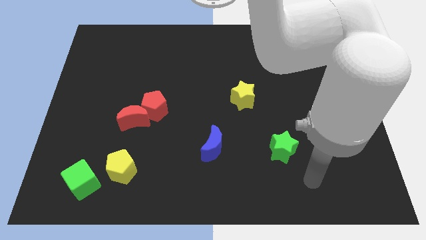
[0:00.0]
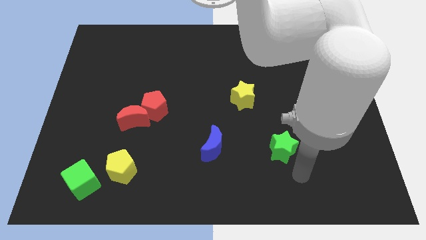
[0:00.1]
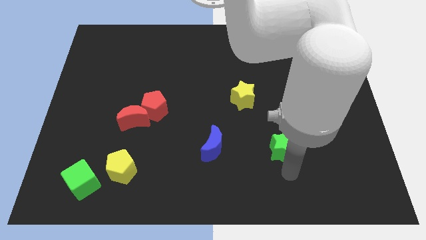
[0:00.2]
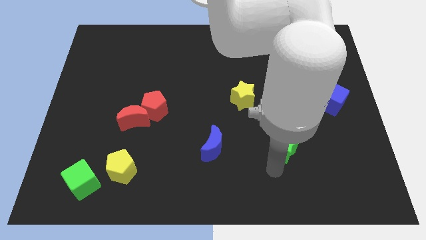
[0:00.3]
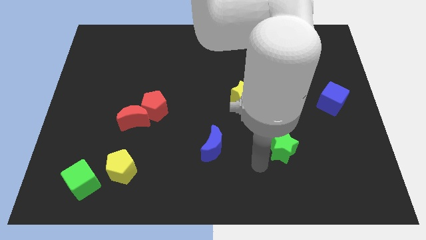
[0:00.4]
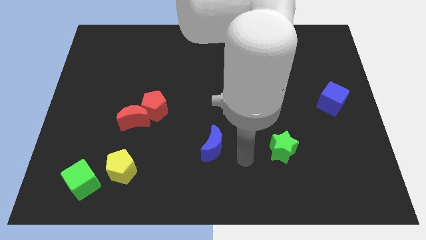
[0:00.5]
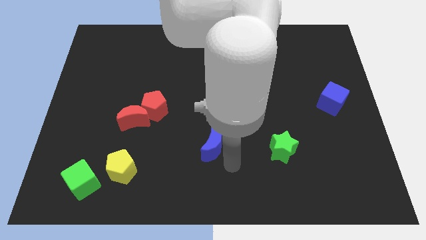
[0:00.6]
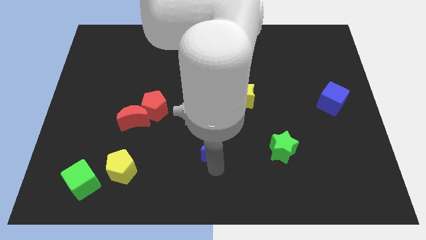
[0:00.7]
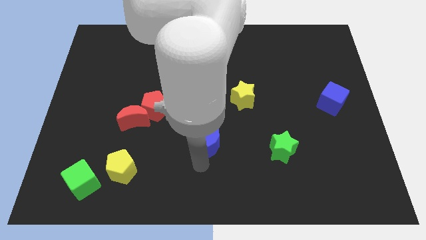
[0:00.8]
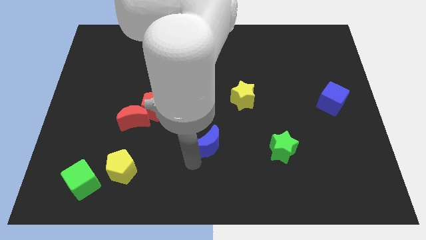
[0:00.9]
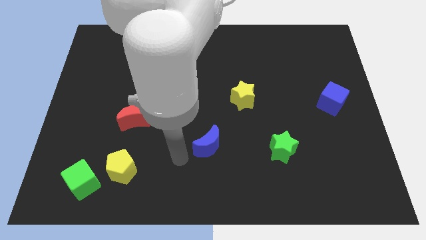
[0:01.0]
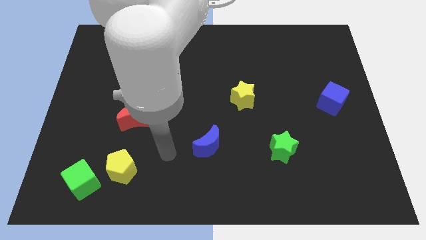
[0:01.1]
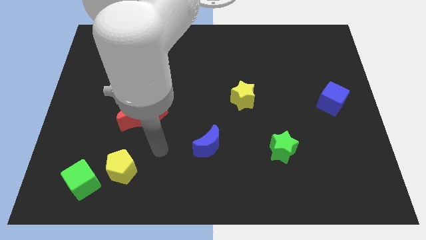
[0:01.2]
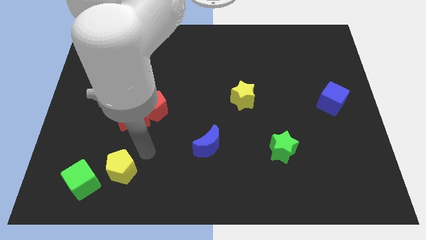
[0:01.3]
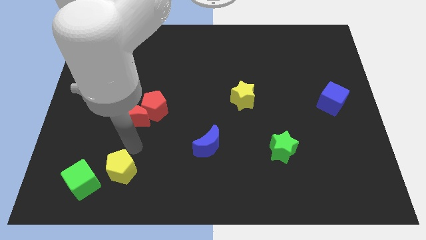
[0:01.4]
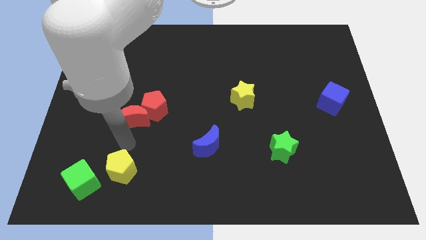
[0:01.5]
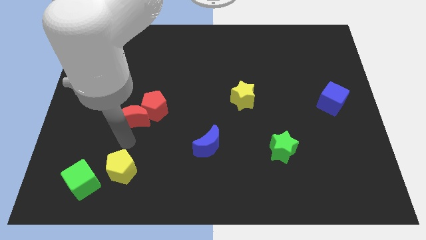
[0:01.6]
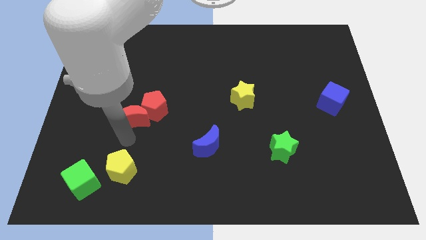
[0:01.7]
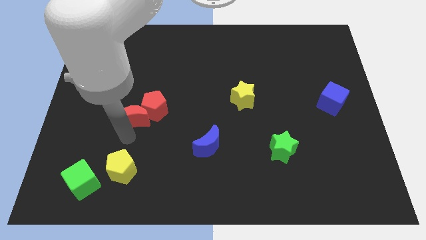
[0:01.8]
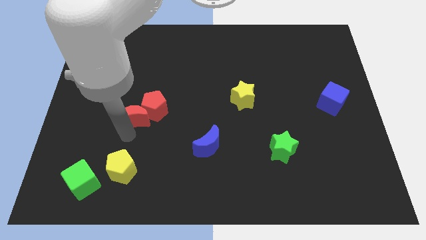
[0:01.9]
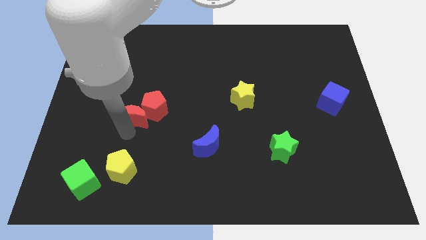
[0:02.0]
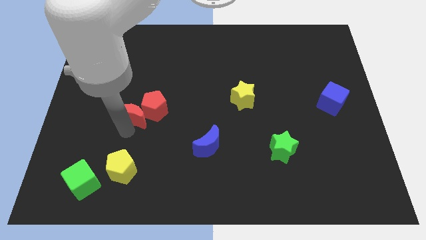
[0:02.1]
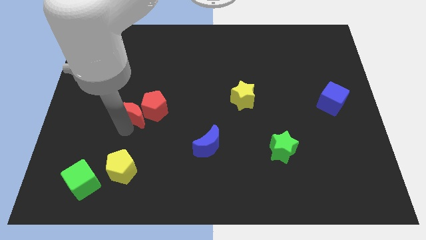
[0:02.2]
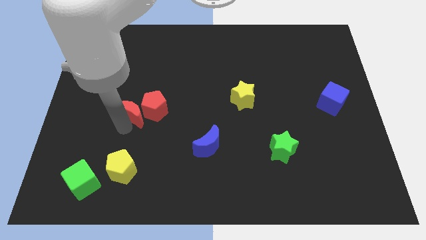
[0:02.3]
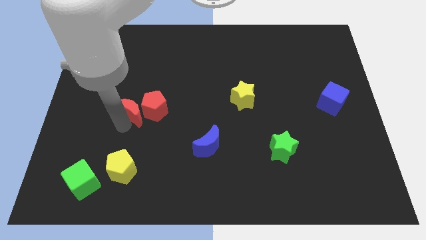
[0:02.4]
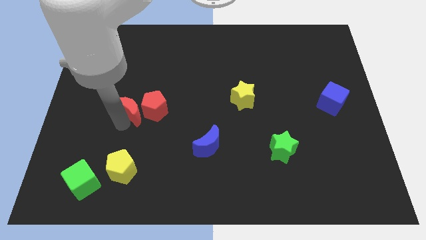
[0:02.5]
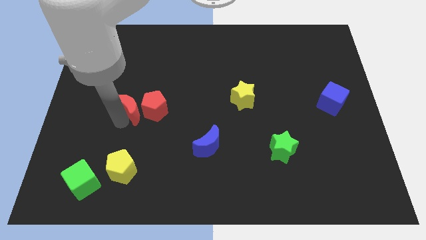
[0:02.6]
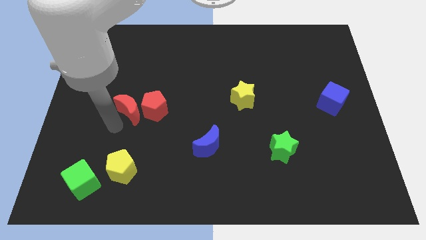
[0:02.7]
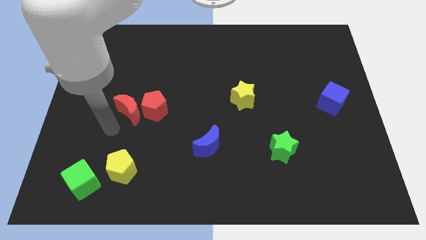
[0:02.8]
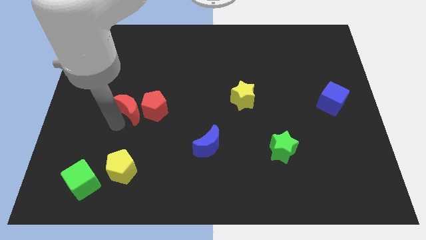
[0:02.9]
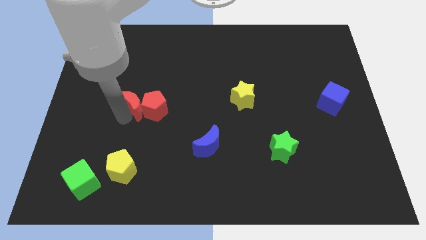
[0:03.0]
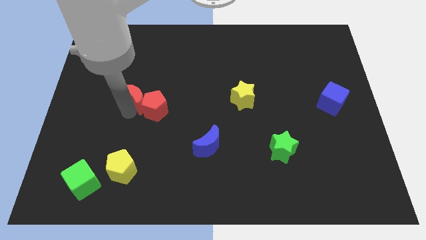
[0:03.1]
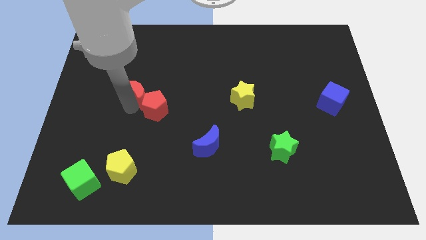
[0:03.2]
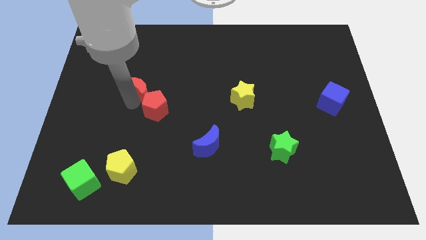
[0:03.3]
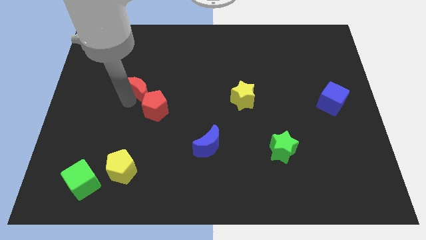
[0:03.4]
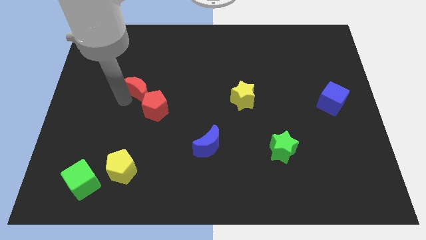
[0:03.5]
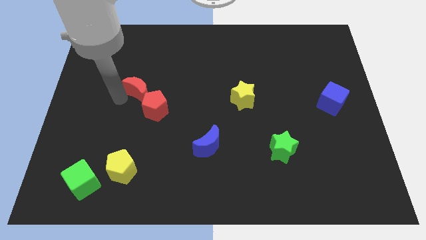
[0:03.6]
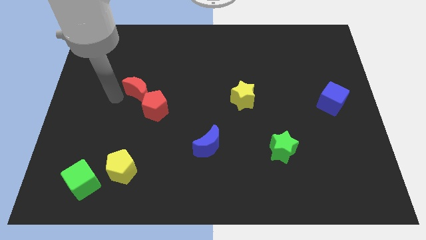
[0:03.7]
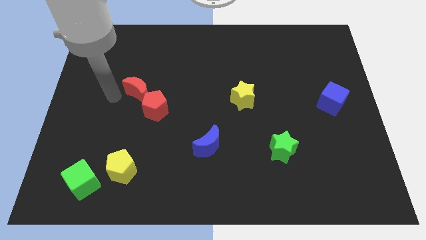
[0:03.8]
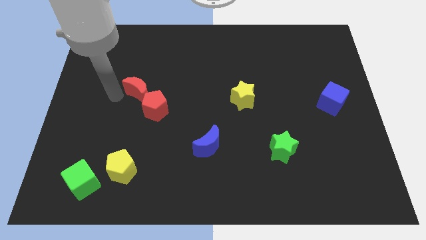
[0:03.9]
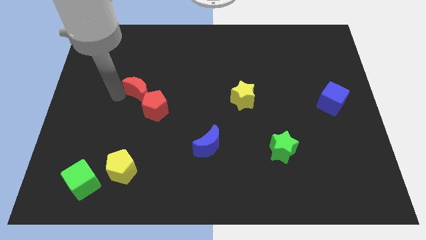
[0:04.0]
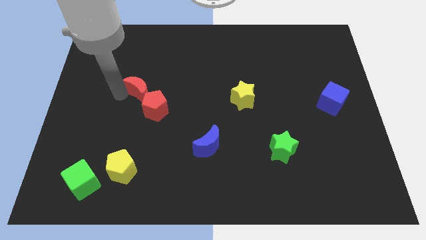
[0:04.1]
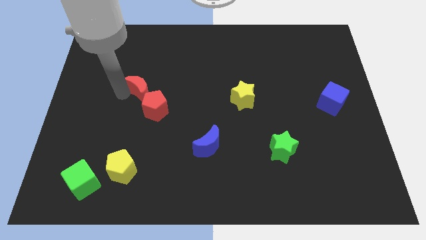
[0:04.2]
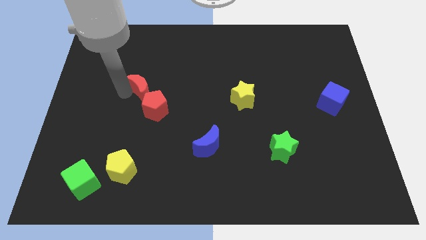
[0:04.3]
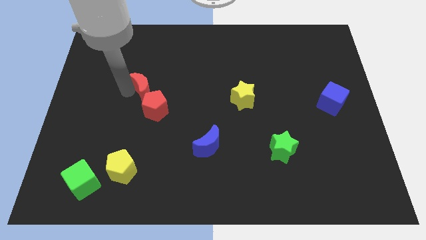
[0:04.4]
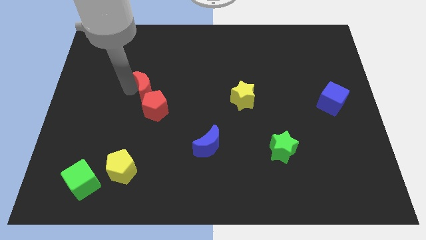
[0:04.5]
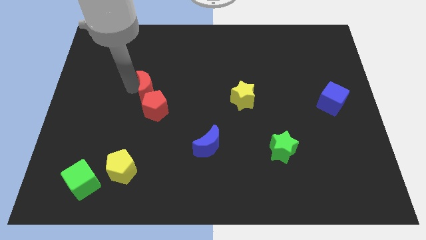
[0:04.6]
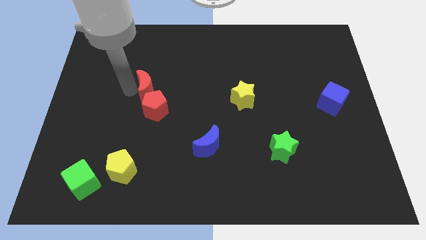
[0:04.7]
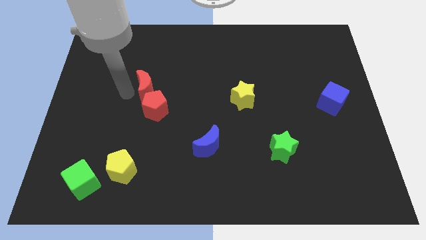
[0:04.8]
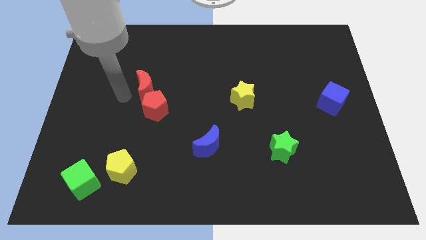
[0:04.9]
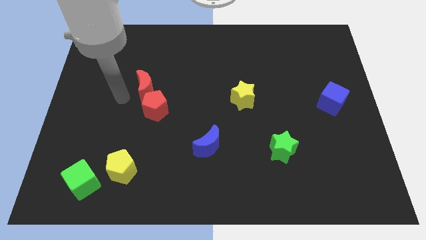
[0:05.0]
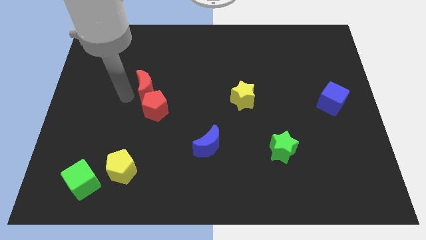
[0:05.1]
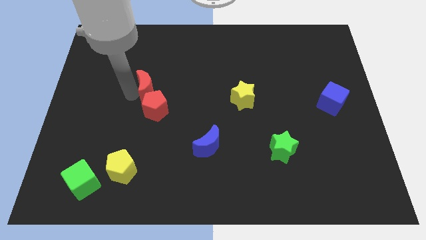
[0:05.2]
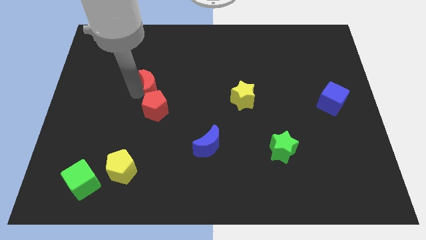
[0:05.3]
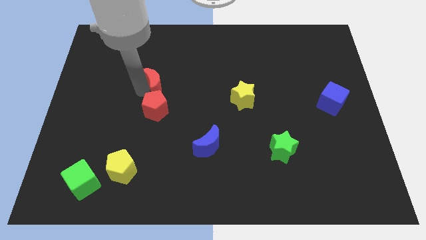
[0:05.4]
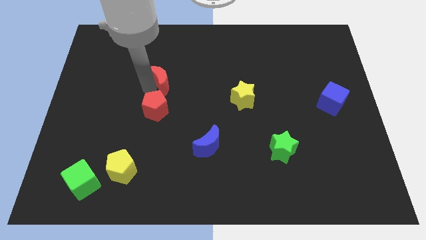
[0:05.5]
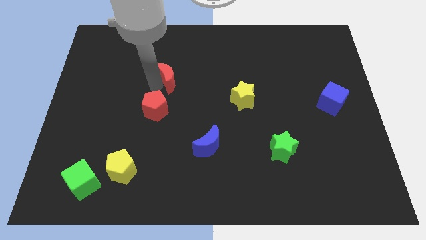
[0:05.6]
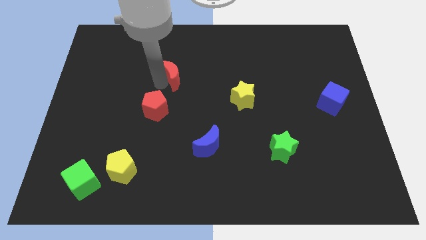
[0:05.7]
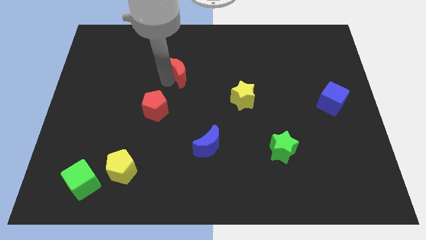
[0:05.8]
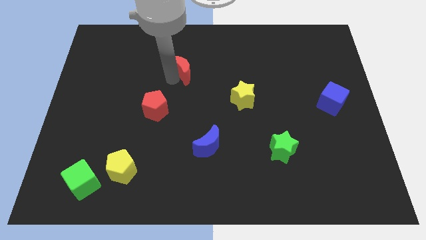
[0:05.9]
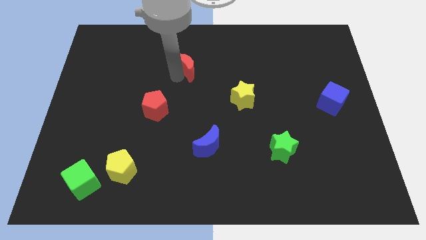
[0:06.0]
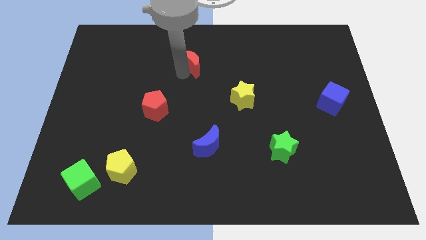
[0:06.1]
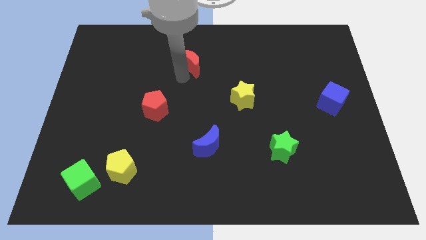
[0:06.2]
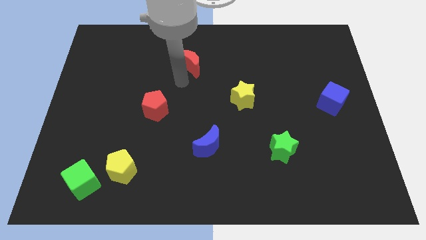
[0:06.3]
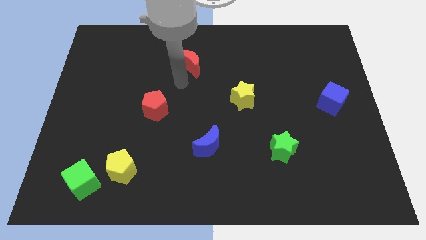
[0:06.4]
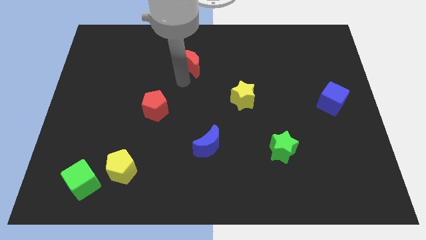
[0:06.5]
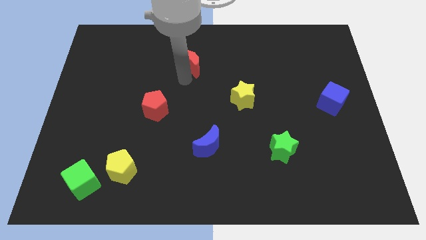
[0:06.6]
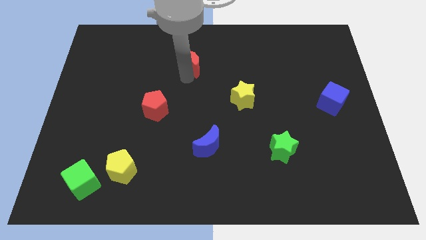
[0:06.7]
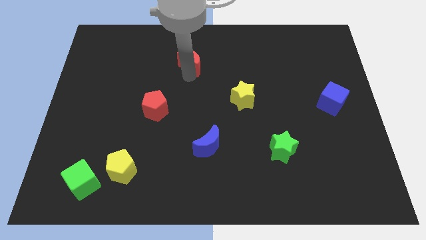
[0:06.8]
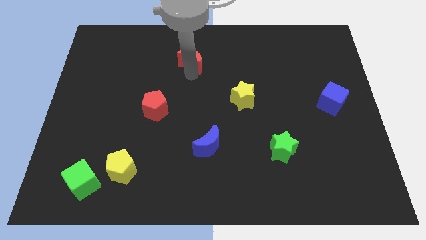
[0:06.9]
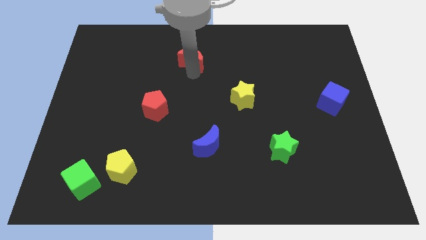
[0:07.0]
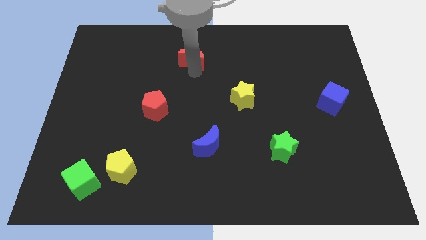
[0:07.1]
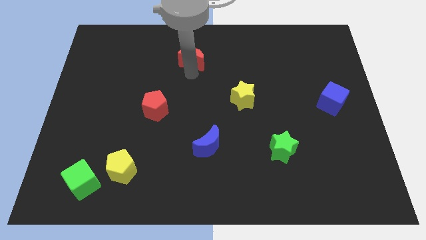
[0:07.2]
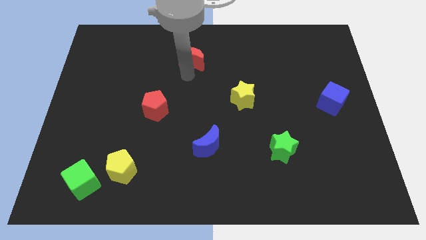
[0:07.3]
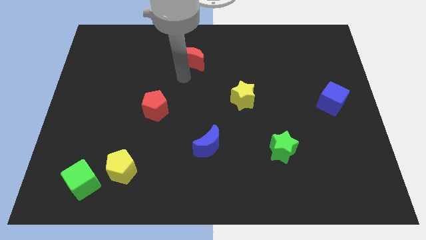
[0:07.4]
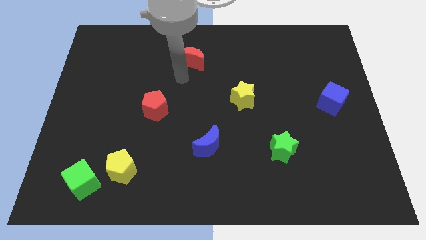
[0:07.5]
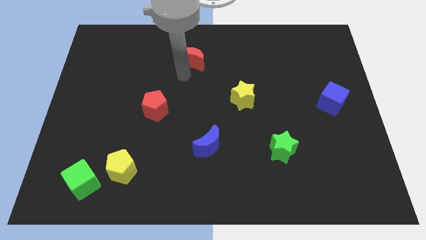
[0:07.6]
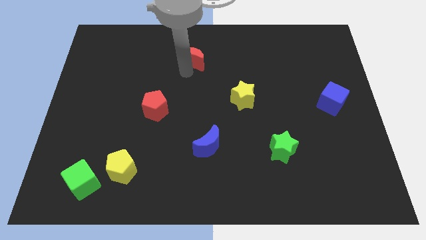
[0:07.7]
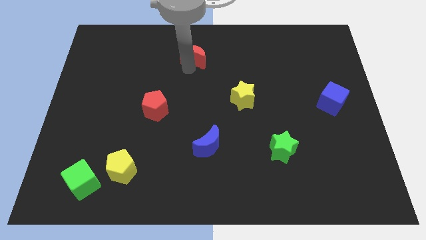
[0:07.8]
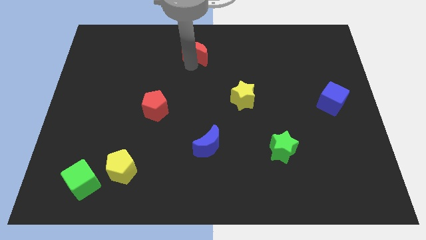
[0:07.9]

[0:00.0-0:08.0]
put the red moon to the top
